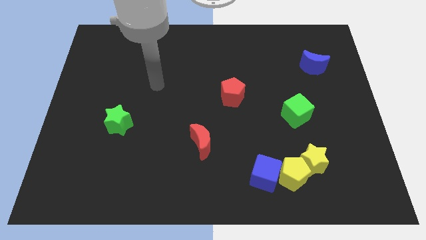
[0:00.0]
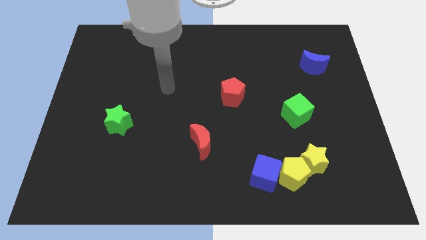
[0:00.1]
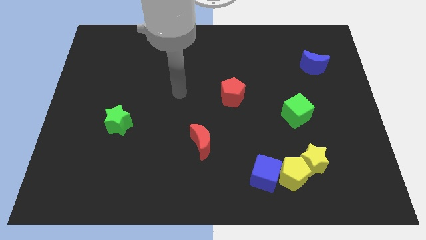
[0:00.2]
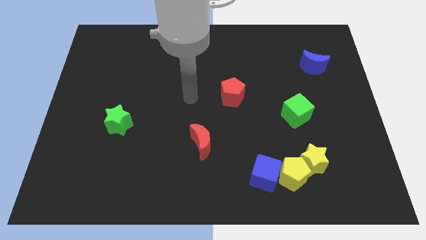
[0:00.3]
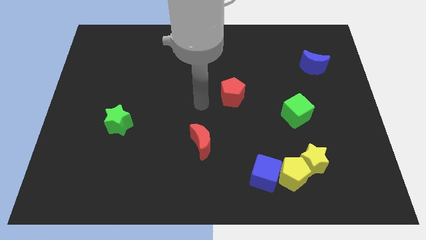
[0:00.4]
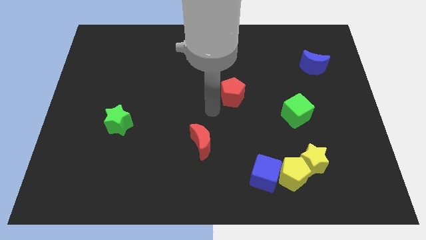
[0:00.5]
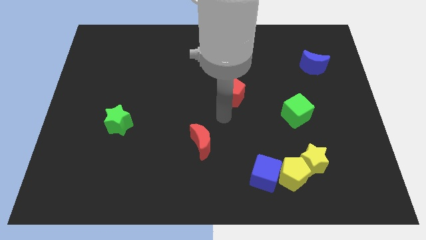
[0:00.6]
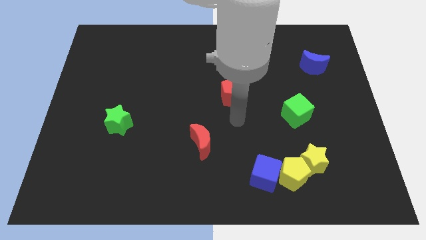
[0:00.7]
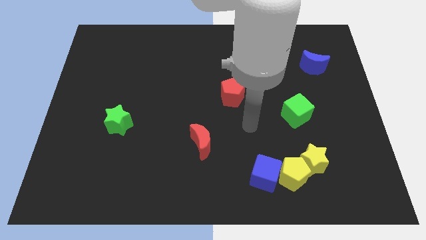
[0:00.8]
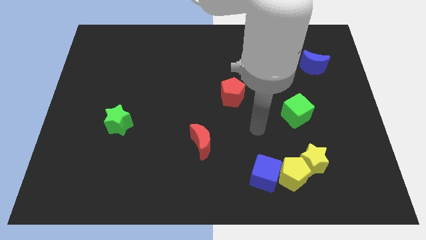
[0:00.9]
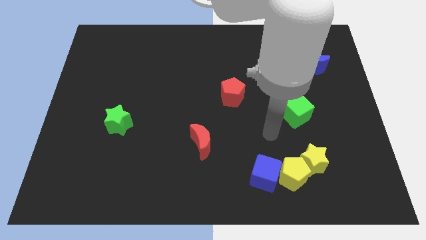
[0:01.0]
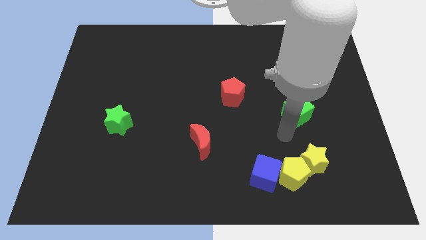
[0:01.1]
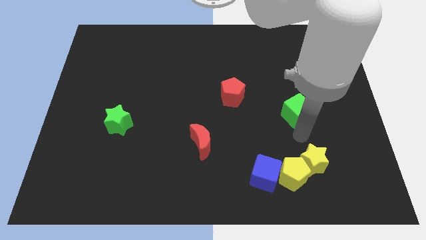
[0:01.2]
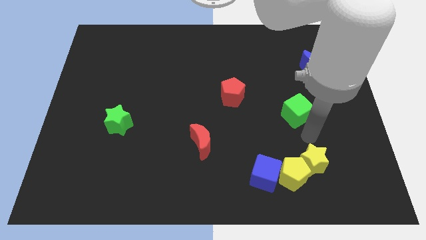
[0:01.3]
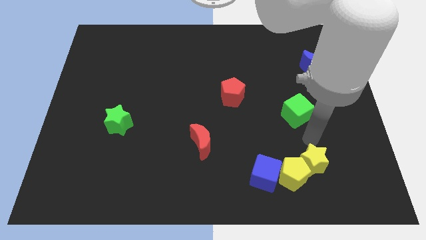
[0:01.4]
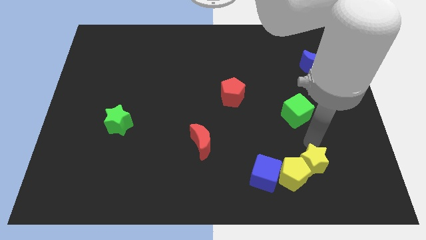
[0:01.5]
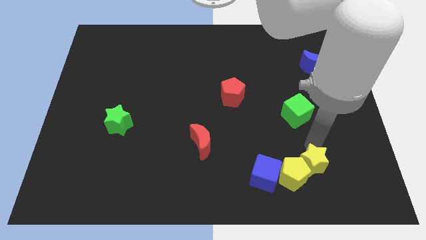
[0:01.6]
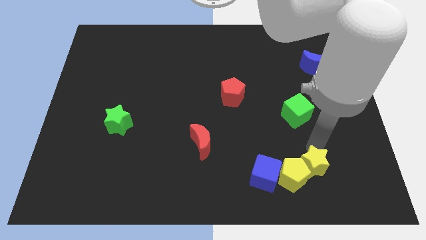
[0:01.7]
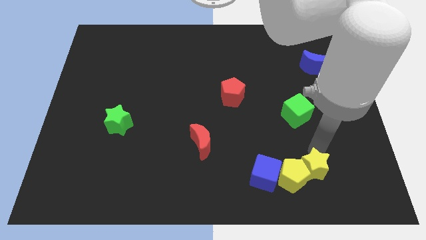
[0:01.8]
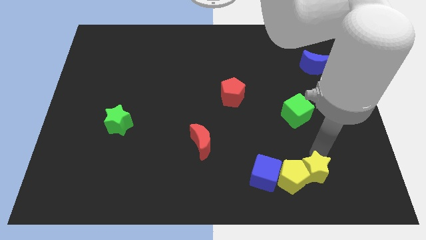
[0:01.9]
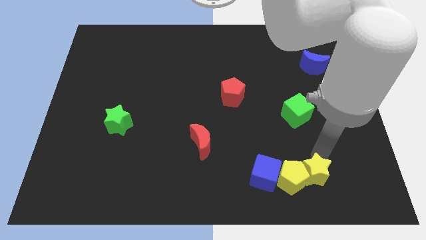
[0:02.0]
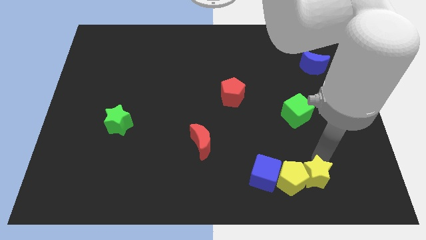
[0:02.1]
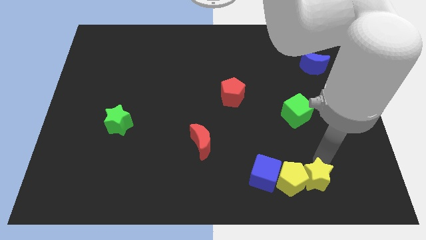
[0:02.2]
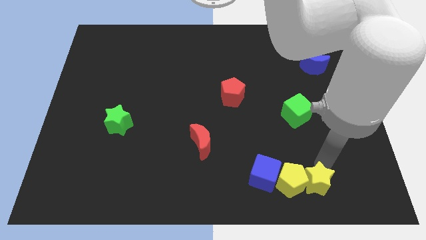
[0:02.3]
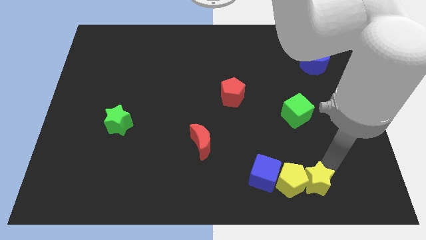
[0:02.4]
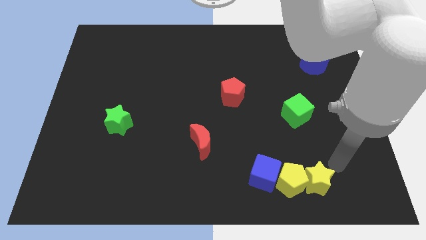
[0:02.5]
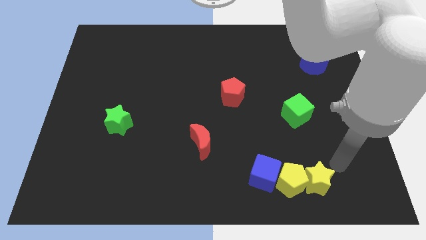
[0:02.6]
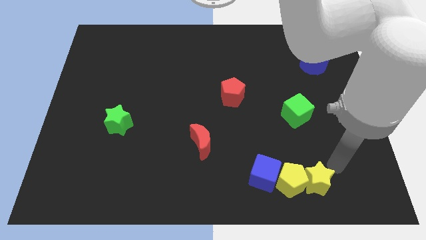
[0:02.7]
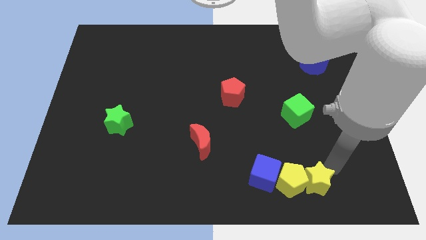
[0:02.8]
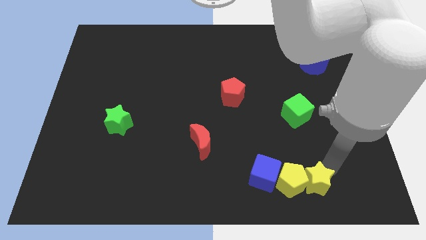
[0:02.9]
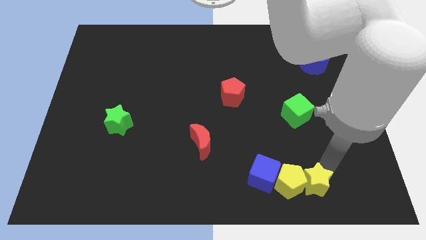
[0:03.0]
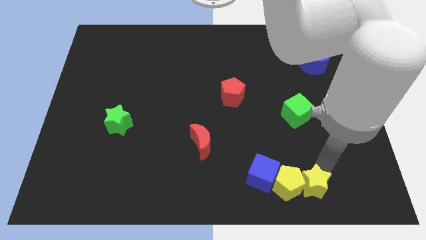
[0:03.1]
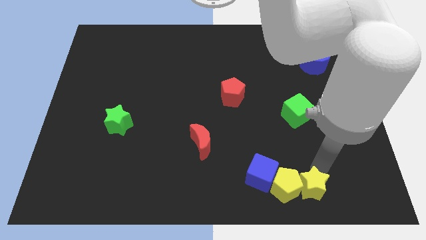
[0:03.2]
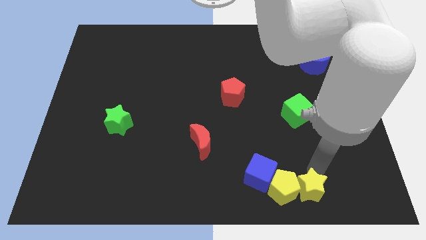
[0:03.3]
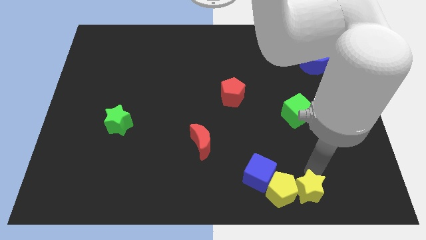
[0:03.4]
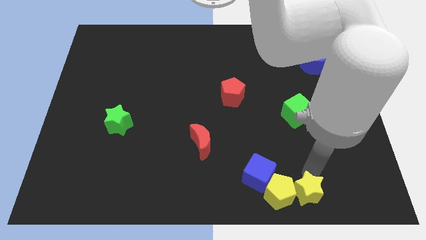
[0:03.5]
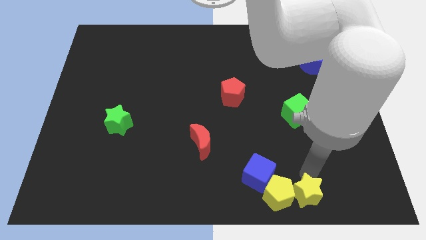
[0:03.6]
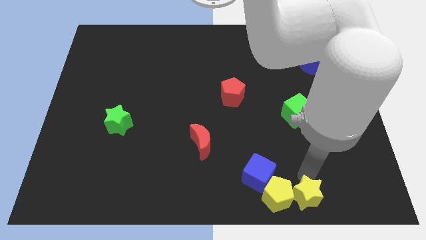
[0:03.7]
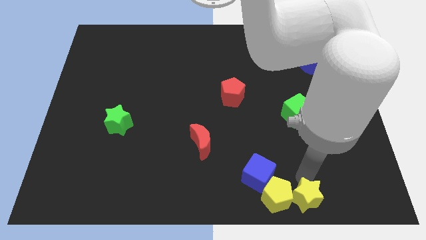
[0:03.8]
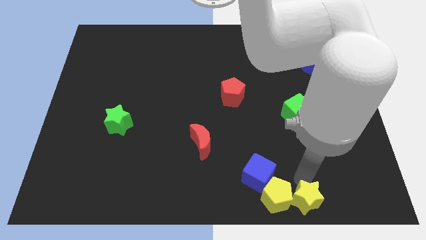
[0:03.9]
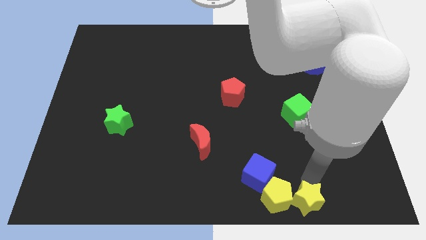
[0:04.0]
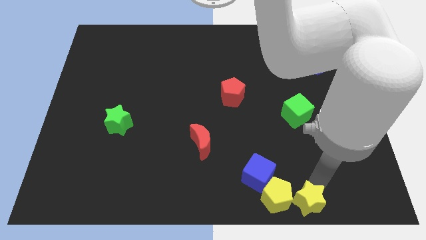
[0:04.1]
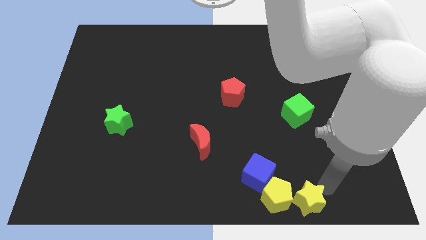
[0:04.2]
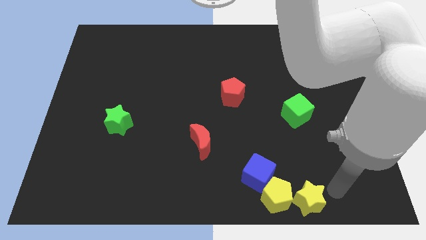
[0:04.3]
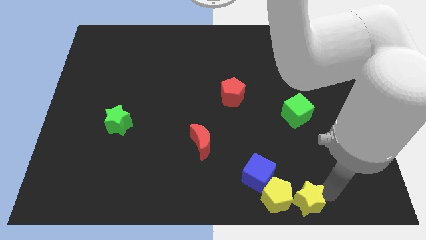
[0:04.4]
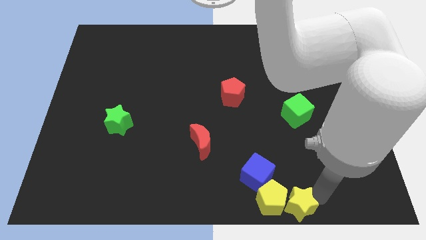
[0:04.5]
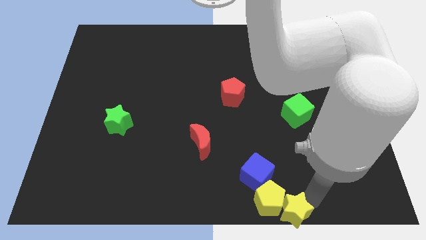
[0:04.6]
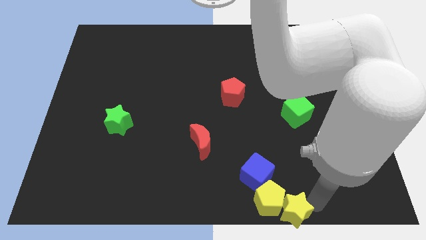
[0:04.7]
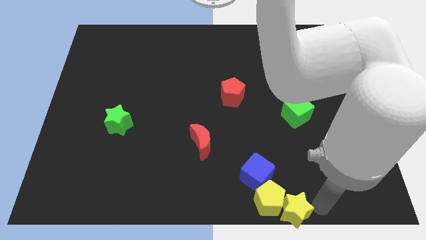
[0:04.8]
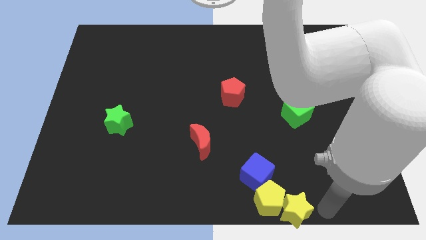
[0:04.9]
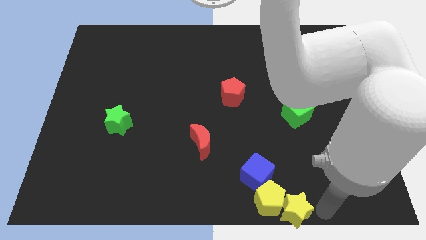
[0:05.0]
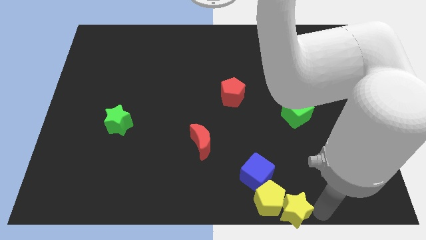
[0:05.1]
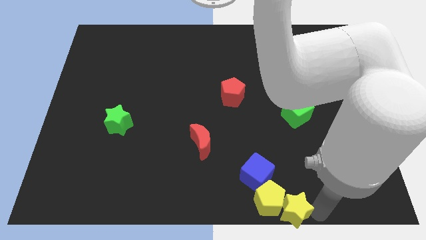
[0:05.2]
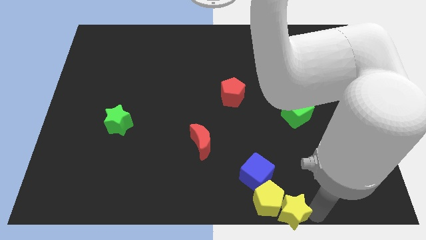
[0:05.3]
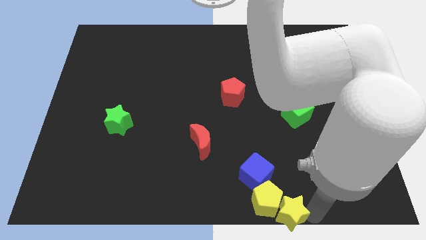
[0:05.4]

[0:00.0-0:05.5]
put the yellow star to the bottom side

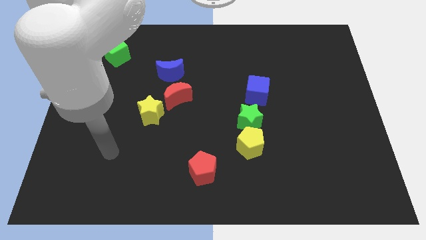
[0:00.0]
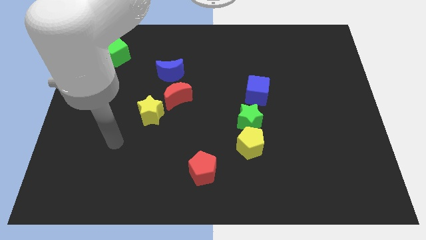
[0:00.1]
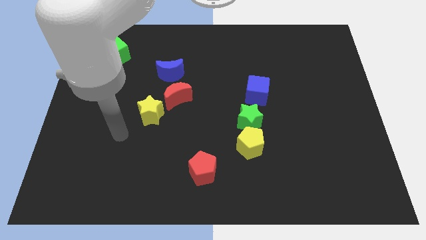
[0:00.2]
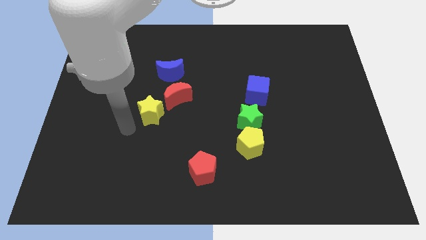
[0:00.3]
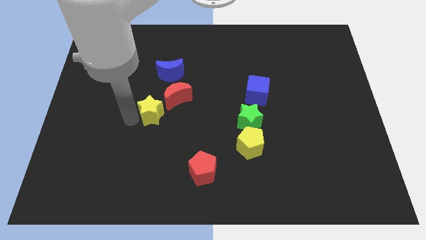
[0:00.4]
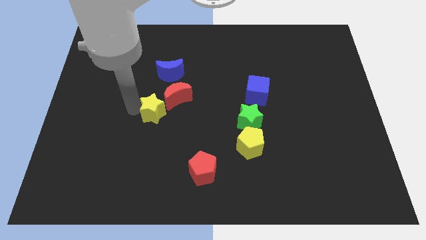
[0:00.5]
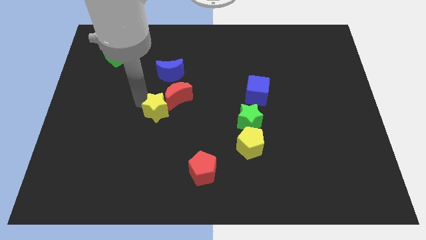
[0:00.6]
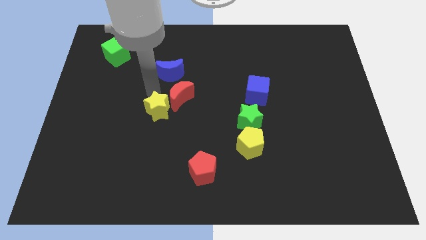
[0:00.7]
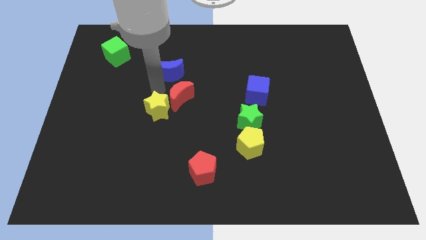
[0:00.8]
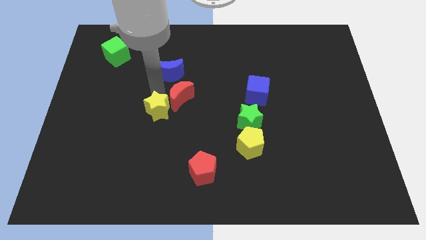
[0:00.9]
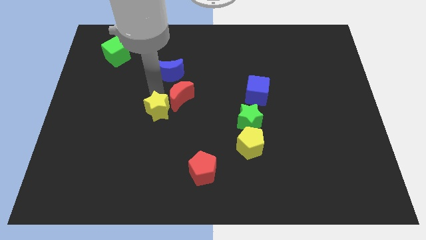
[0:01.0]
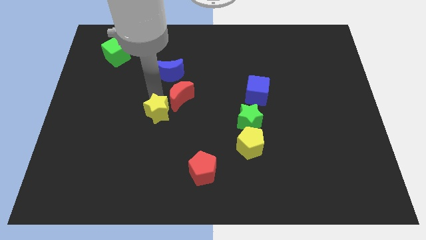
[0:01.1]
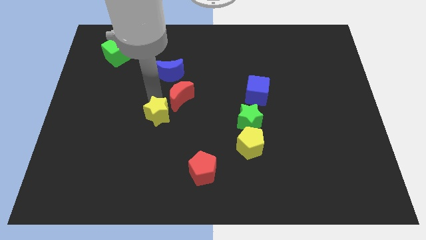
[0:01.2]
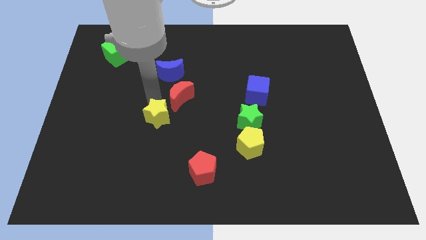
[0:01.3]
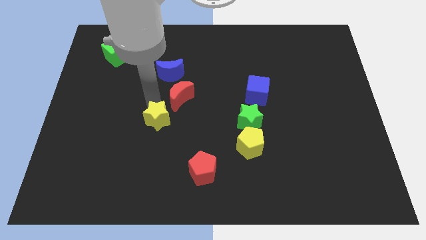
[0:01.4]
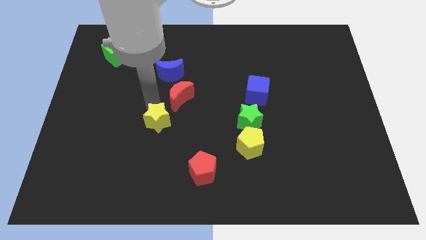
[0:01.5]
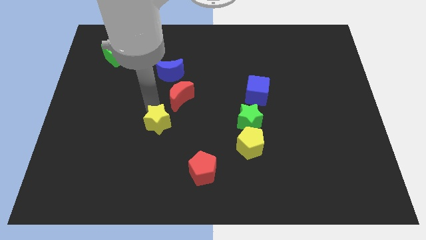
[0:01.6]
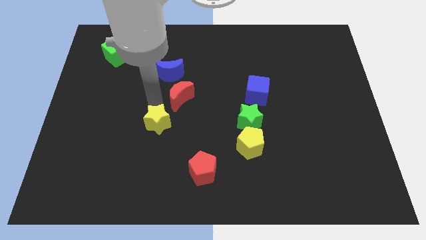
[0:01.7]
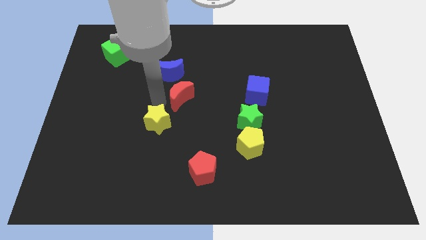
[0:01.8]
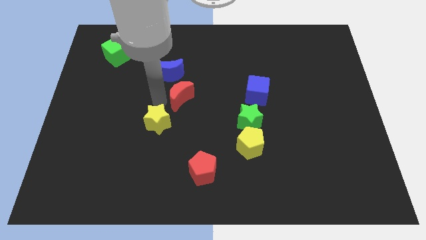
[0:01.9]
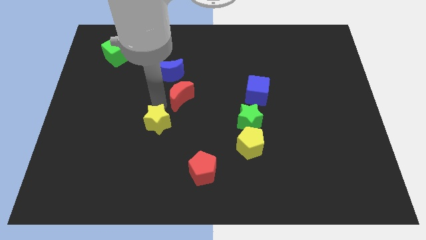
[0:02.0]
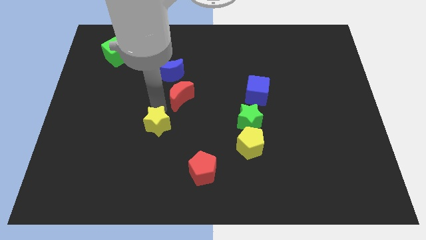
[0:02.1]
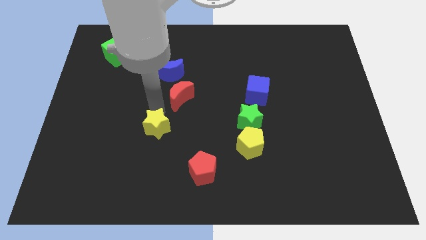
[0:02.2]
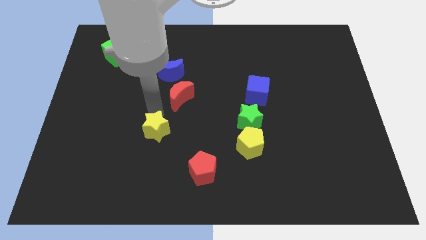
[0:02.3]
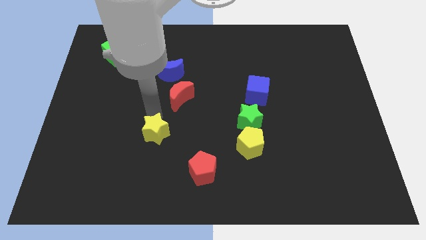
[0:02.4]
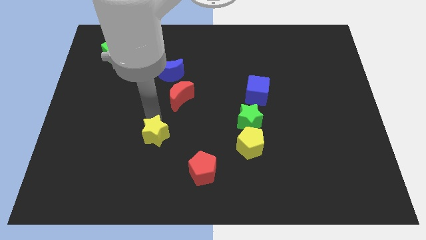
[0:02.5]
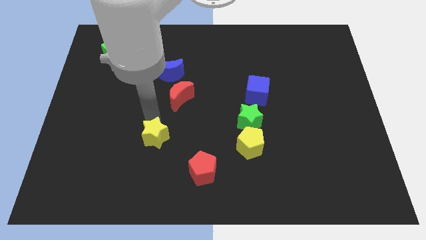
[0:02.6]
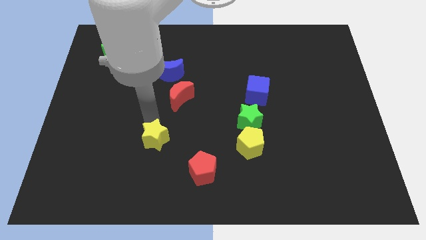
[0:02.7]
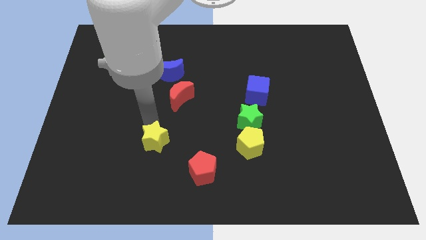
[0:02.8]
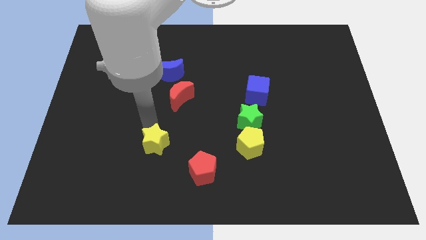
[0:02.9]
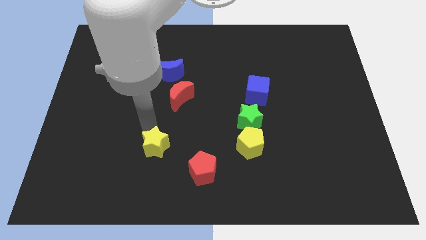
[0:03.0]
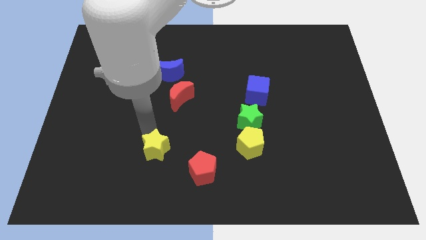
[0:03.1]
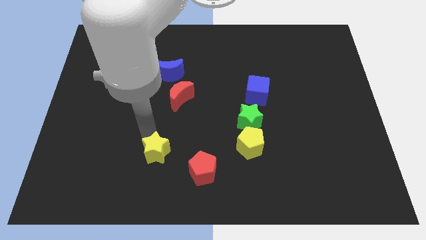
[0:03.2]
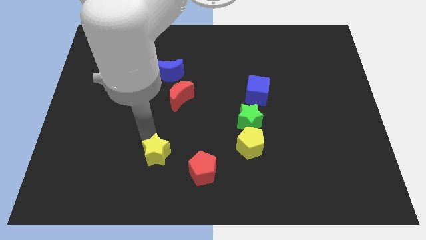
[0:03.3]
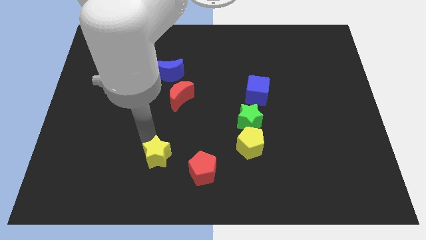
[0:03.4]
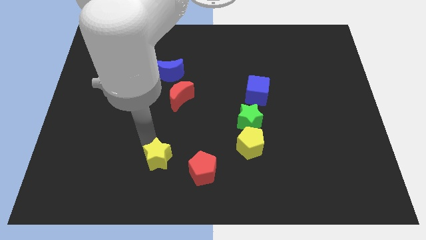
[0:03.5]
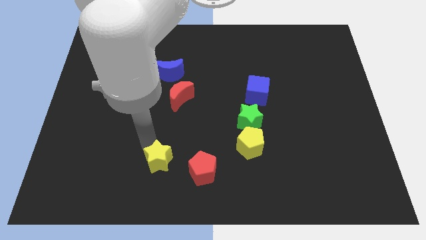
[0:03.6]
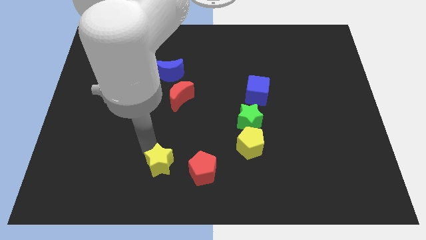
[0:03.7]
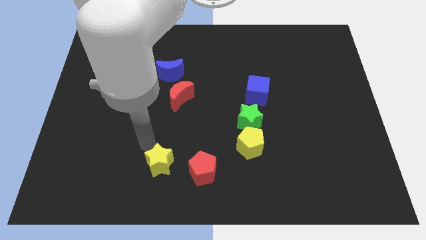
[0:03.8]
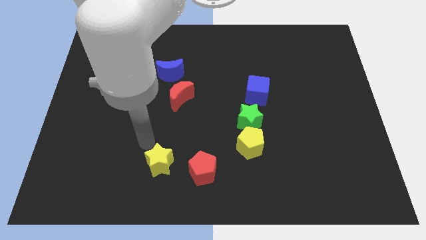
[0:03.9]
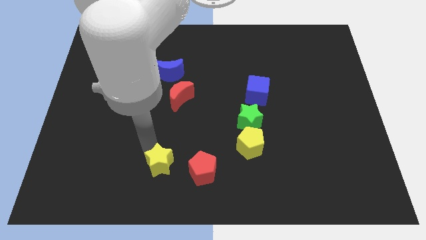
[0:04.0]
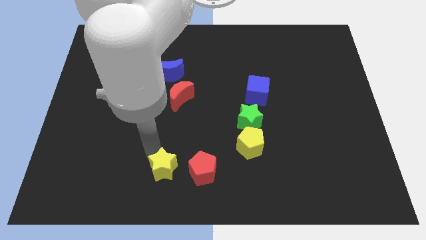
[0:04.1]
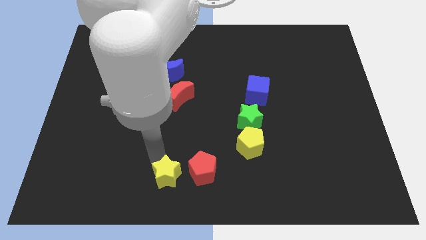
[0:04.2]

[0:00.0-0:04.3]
push the yellow star to the bottom side
